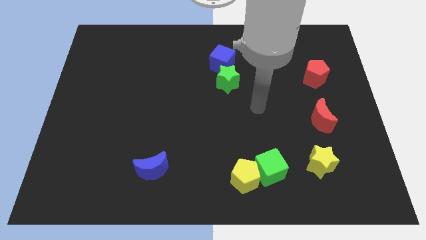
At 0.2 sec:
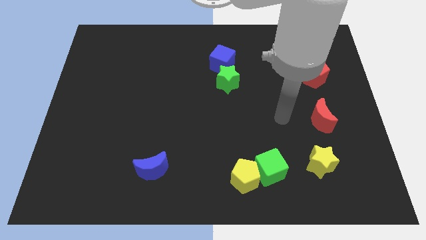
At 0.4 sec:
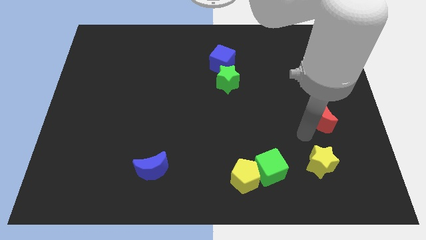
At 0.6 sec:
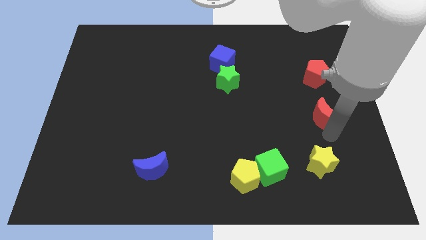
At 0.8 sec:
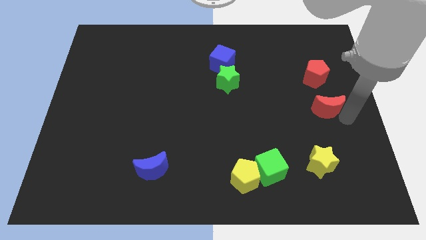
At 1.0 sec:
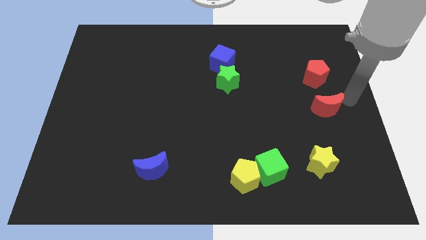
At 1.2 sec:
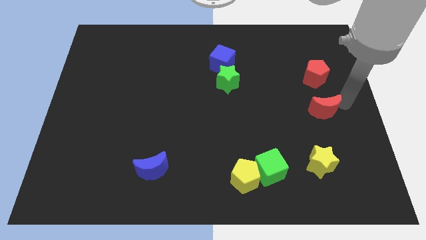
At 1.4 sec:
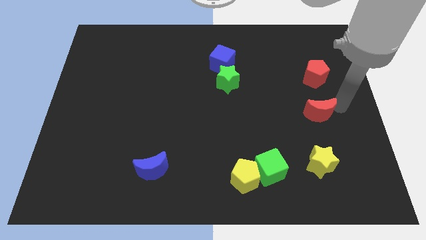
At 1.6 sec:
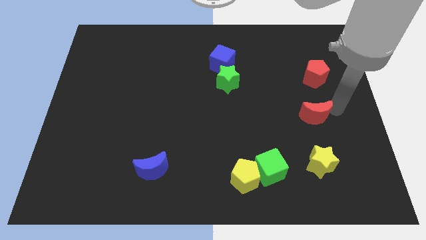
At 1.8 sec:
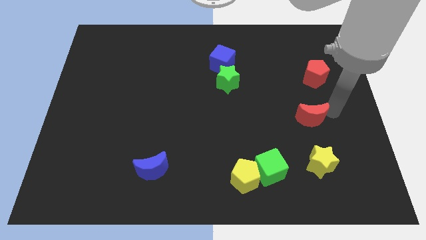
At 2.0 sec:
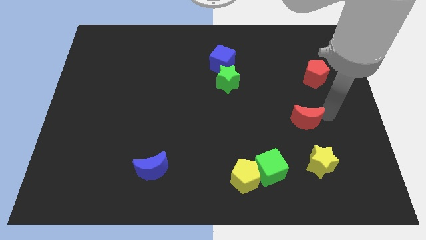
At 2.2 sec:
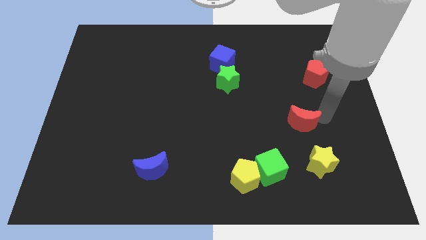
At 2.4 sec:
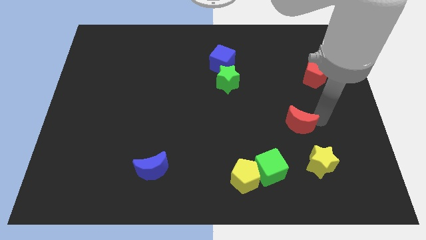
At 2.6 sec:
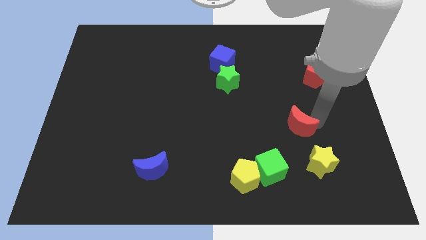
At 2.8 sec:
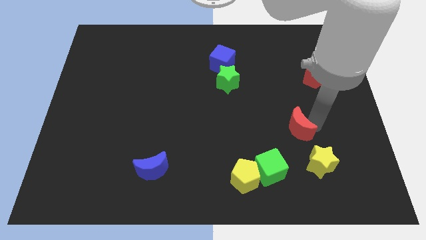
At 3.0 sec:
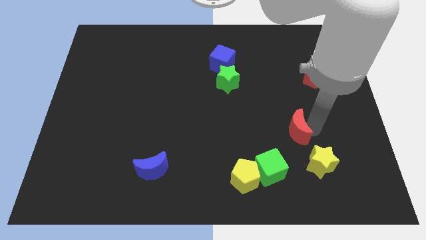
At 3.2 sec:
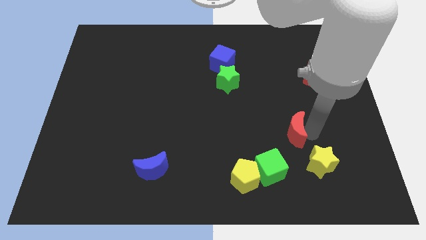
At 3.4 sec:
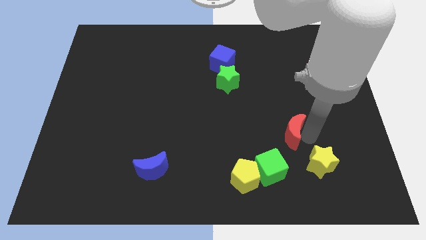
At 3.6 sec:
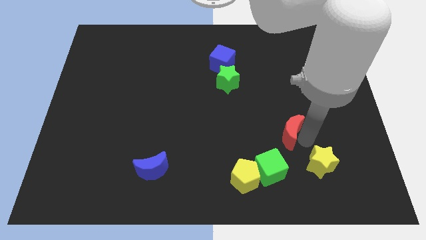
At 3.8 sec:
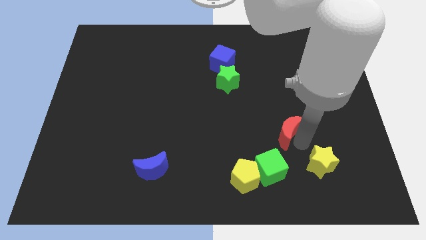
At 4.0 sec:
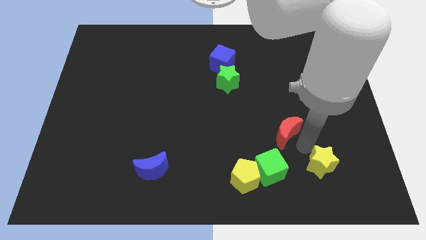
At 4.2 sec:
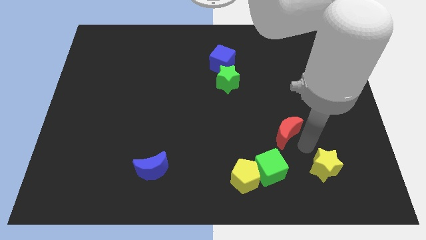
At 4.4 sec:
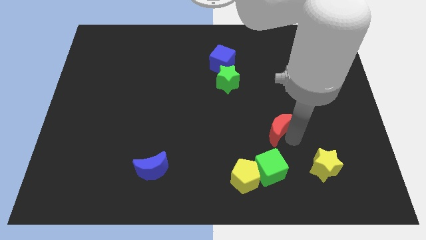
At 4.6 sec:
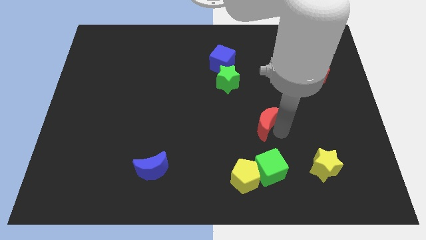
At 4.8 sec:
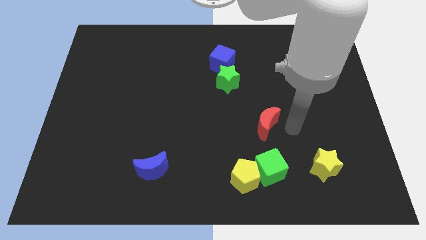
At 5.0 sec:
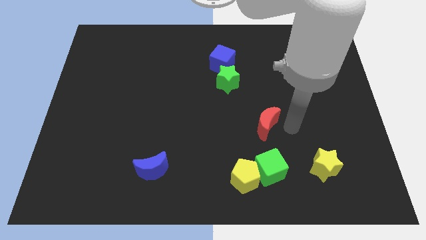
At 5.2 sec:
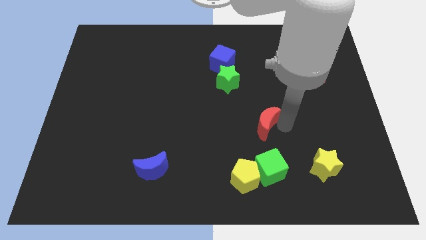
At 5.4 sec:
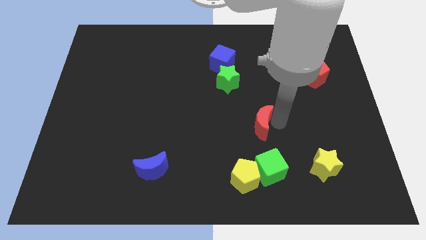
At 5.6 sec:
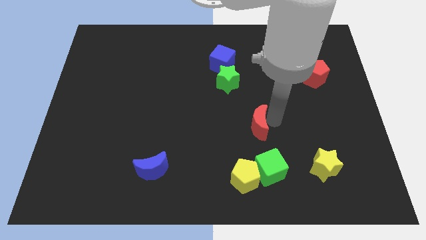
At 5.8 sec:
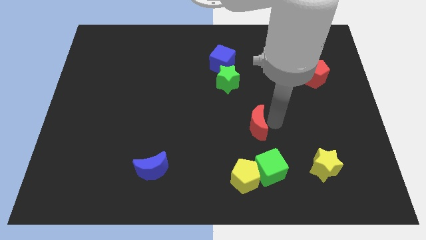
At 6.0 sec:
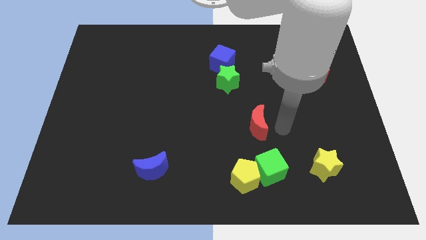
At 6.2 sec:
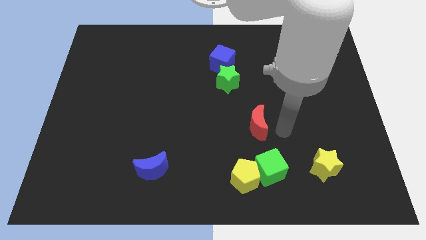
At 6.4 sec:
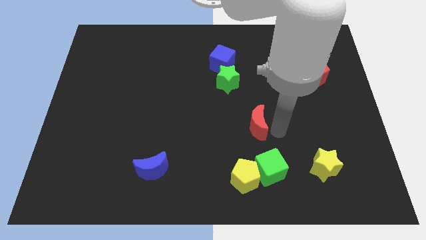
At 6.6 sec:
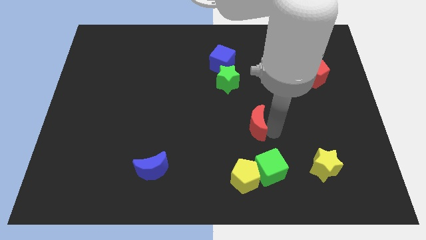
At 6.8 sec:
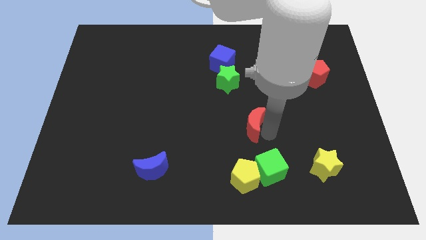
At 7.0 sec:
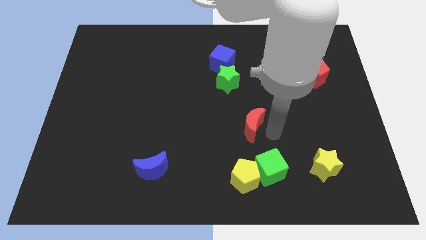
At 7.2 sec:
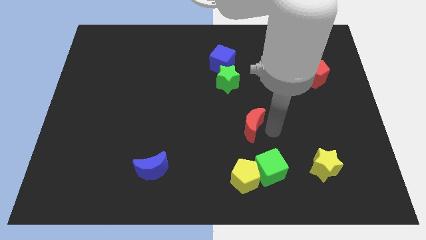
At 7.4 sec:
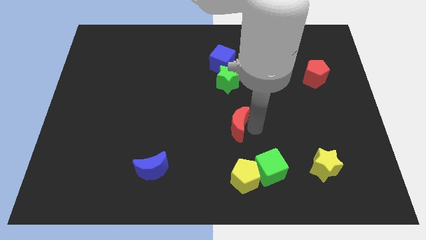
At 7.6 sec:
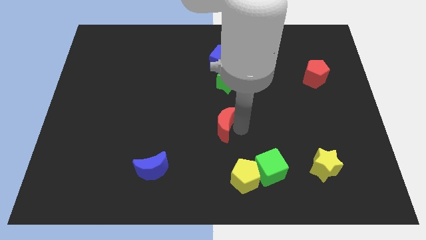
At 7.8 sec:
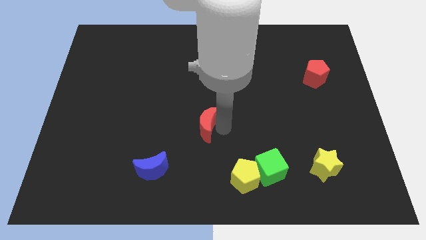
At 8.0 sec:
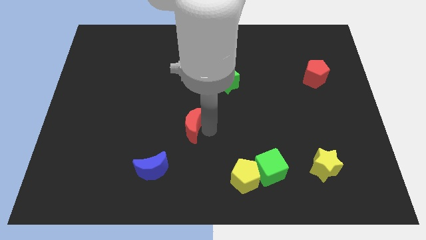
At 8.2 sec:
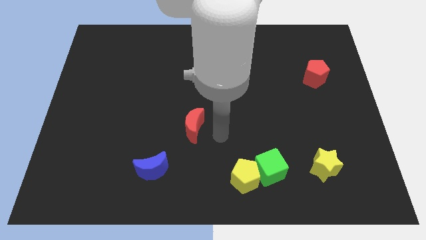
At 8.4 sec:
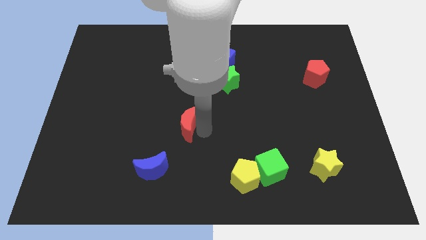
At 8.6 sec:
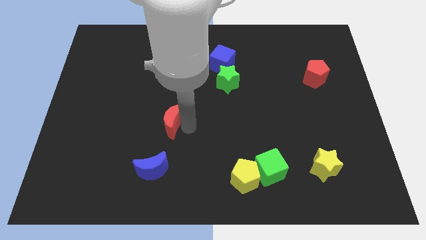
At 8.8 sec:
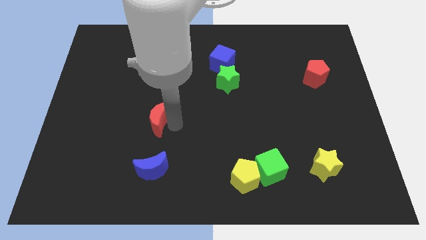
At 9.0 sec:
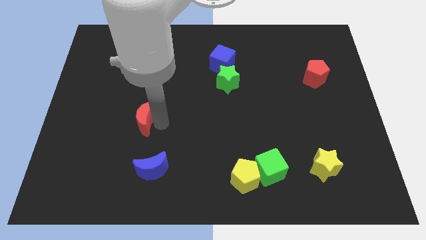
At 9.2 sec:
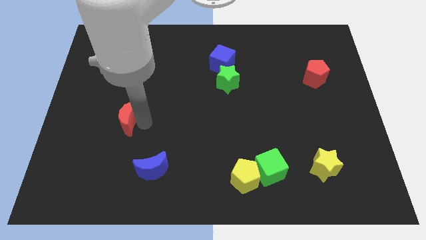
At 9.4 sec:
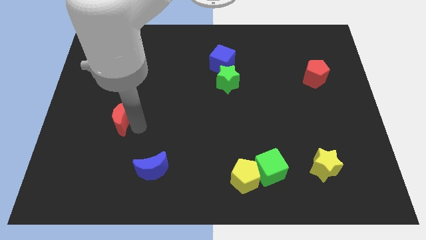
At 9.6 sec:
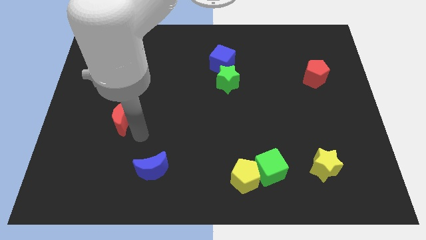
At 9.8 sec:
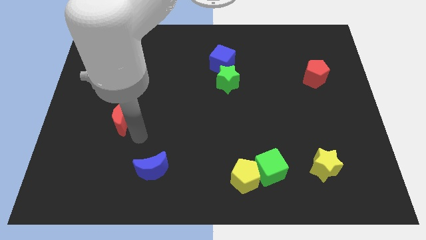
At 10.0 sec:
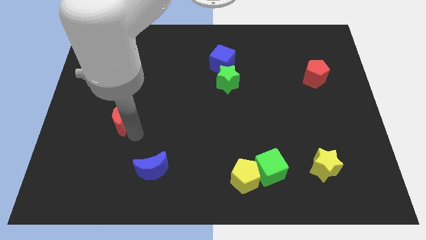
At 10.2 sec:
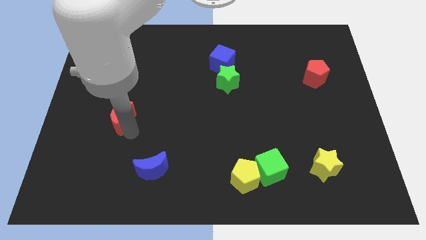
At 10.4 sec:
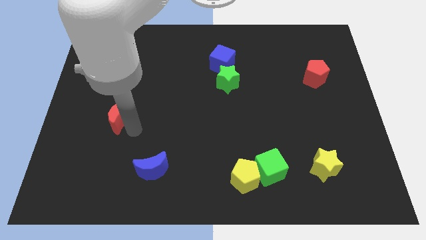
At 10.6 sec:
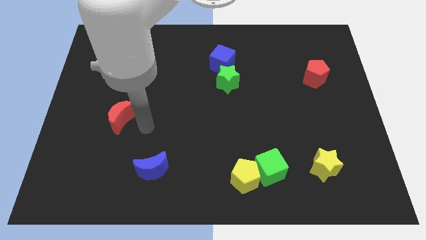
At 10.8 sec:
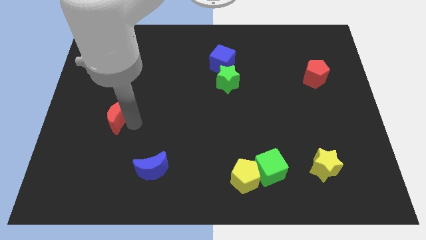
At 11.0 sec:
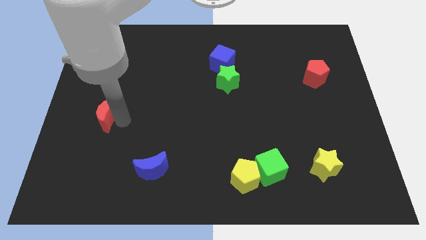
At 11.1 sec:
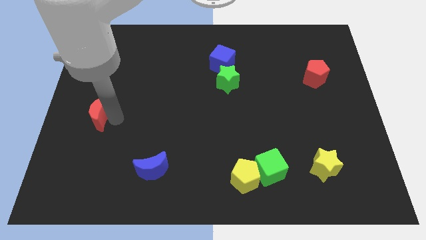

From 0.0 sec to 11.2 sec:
push the red moon to the left side of the board

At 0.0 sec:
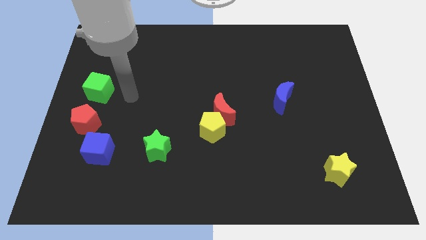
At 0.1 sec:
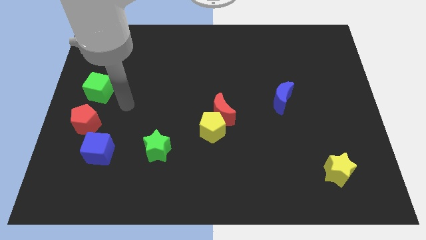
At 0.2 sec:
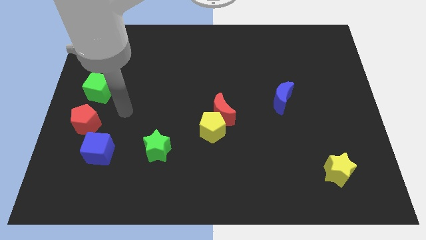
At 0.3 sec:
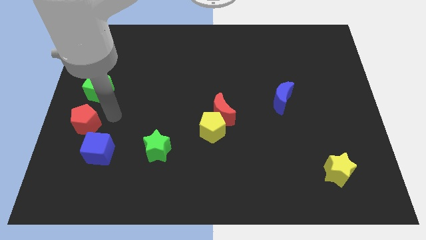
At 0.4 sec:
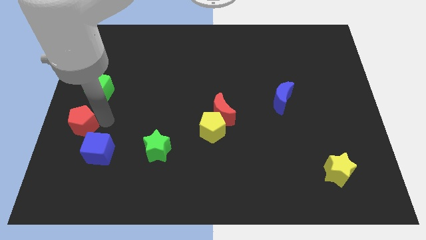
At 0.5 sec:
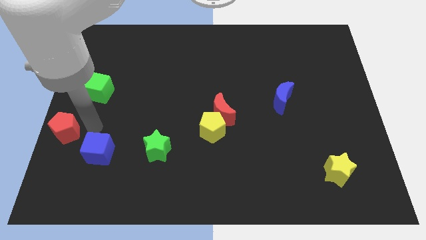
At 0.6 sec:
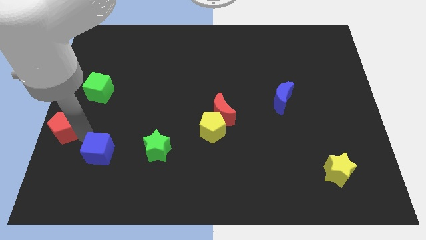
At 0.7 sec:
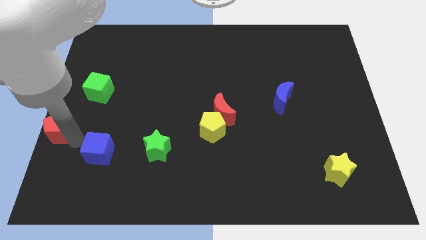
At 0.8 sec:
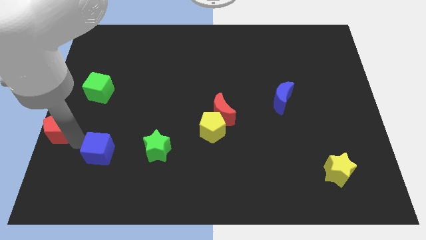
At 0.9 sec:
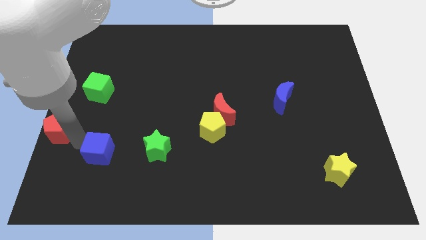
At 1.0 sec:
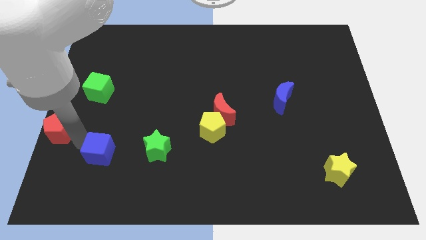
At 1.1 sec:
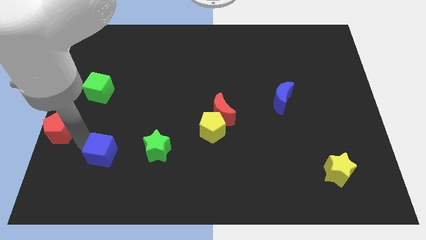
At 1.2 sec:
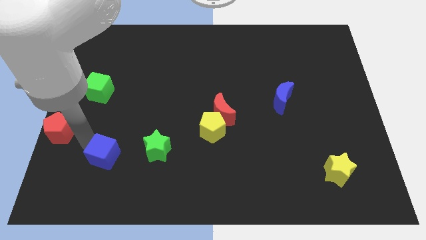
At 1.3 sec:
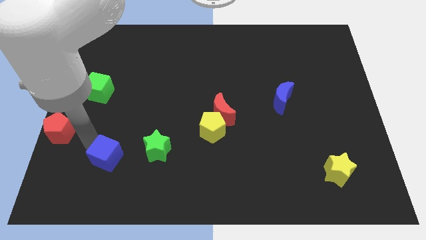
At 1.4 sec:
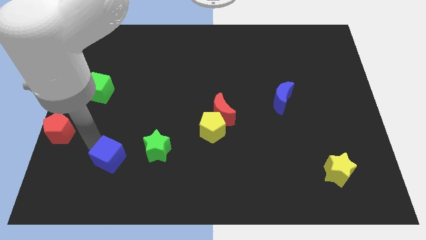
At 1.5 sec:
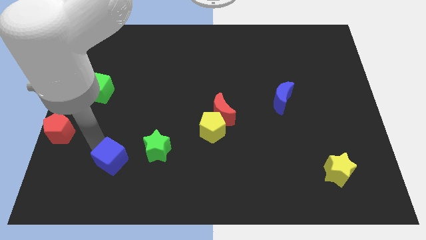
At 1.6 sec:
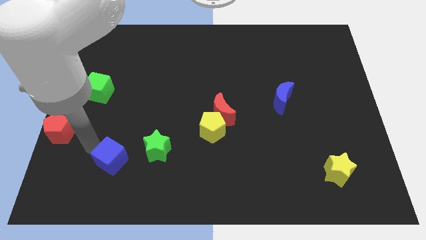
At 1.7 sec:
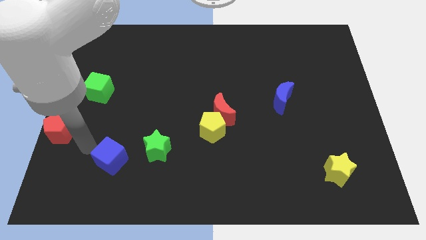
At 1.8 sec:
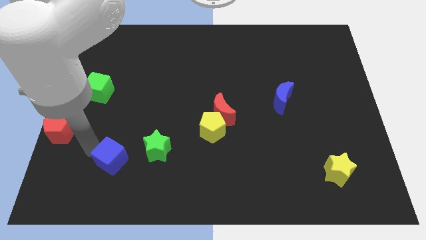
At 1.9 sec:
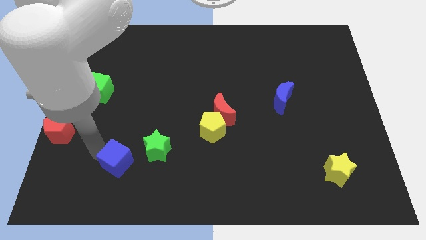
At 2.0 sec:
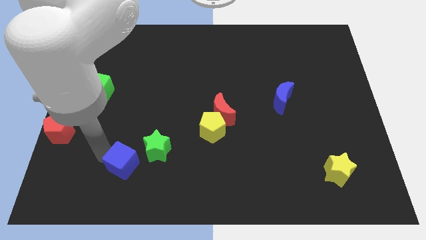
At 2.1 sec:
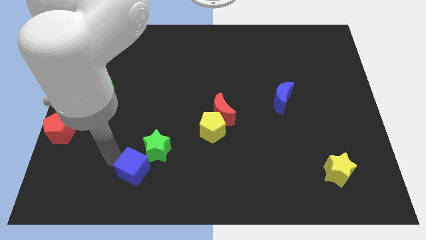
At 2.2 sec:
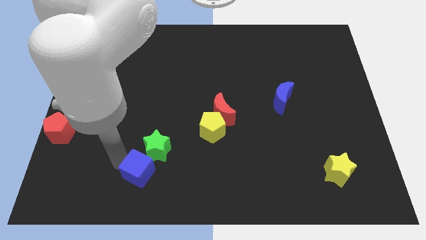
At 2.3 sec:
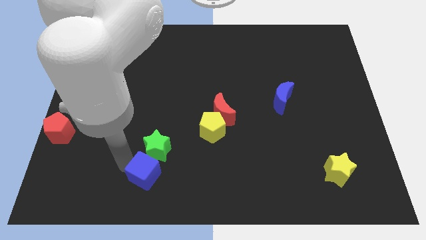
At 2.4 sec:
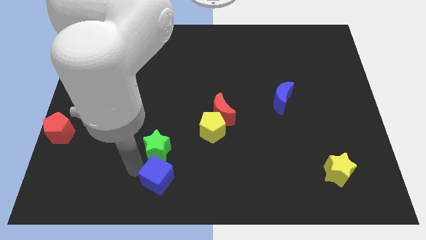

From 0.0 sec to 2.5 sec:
push the blue cube to the bottom
